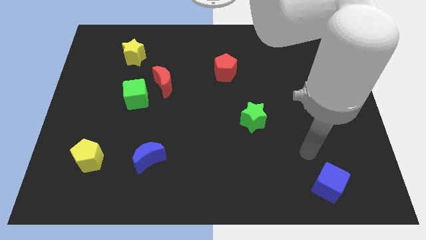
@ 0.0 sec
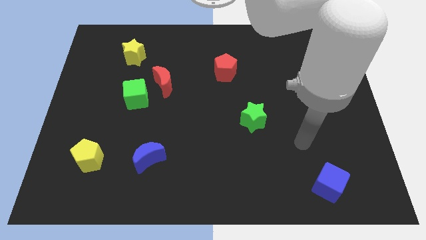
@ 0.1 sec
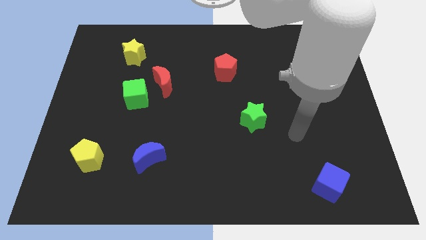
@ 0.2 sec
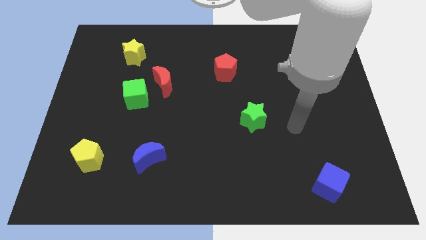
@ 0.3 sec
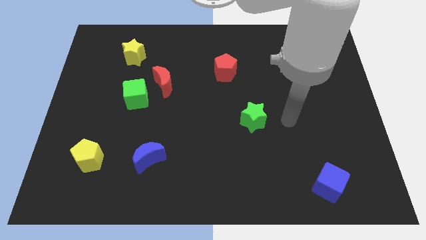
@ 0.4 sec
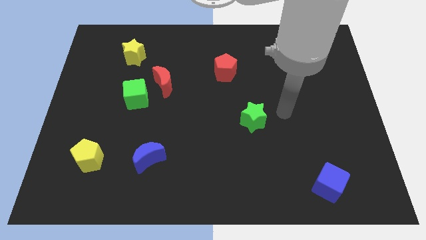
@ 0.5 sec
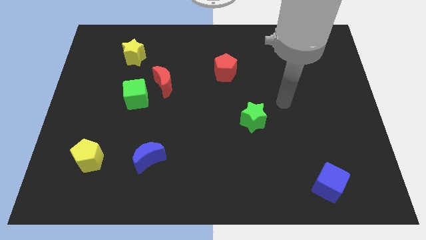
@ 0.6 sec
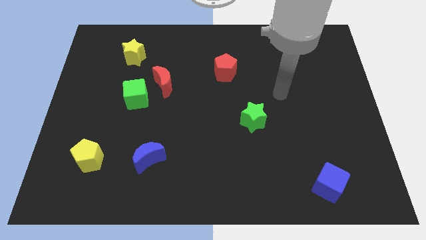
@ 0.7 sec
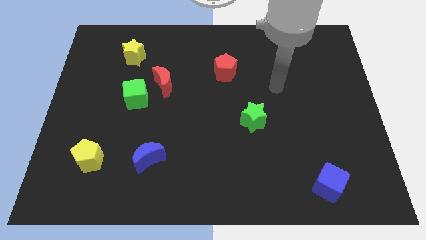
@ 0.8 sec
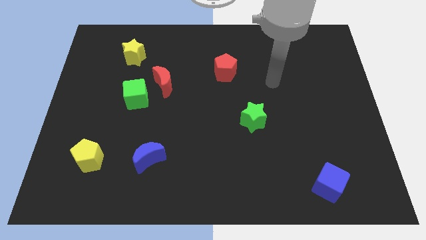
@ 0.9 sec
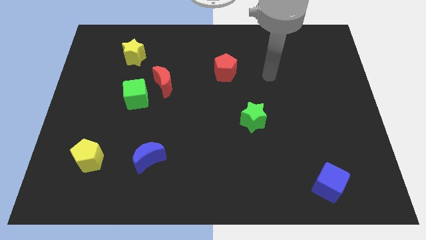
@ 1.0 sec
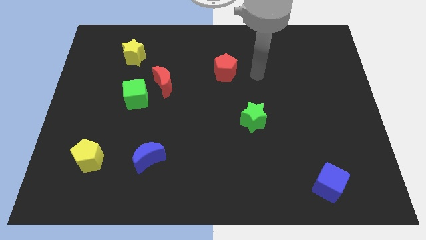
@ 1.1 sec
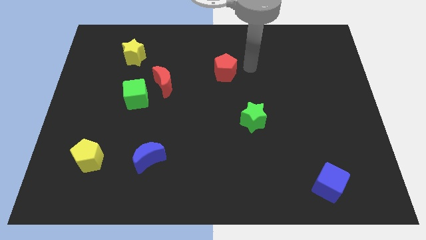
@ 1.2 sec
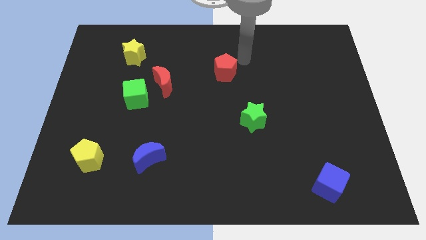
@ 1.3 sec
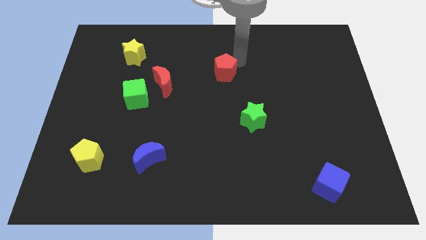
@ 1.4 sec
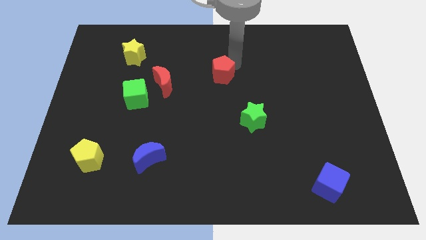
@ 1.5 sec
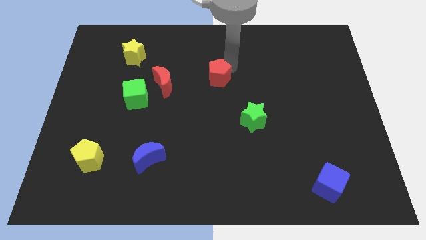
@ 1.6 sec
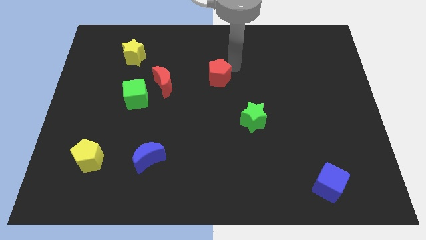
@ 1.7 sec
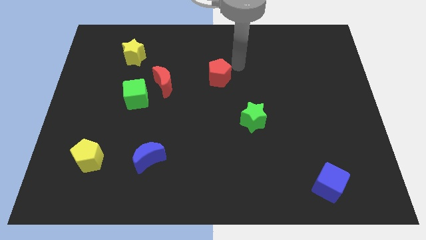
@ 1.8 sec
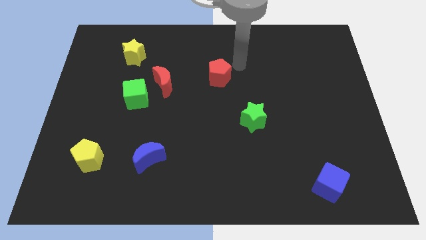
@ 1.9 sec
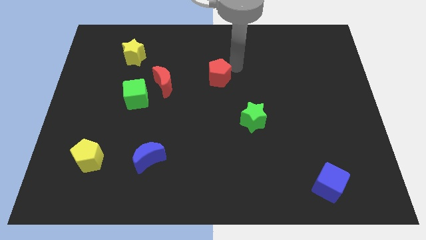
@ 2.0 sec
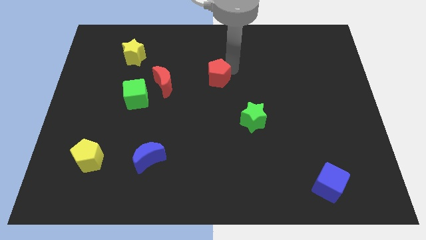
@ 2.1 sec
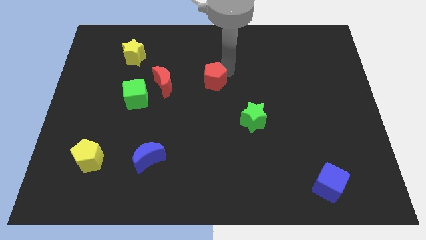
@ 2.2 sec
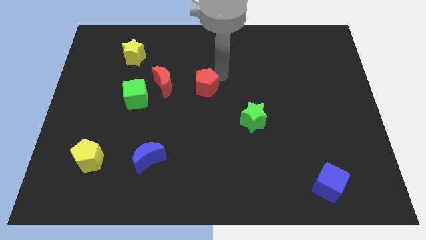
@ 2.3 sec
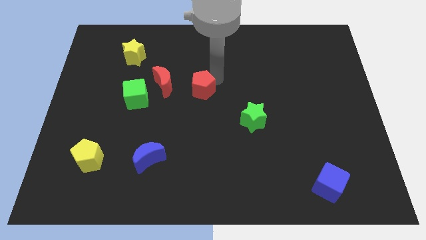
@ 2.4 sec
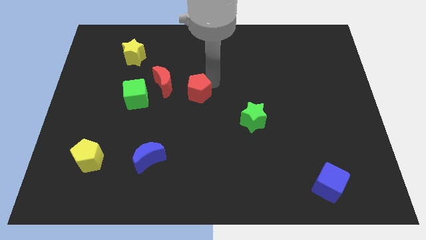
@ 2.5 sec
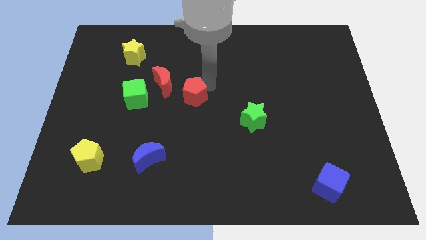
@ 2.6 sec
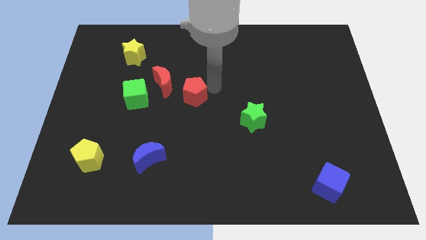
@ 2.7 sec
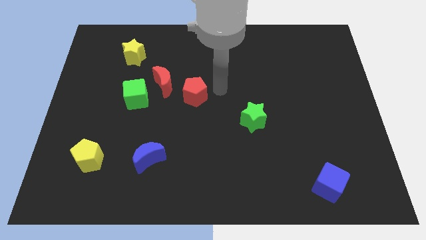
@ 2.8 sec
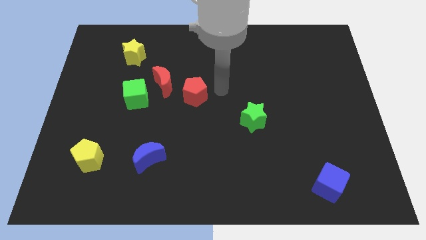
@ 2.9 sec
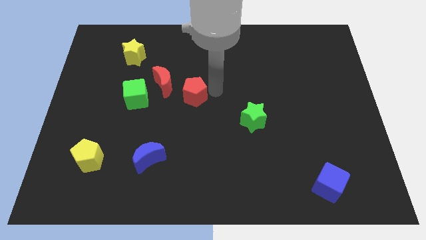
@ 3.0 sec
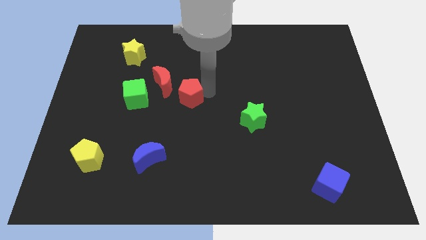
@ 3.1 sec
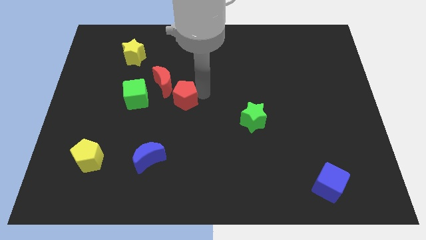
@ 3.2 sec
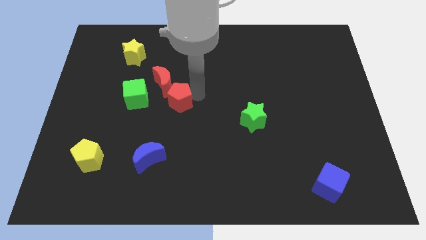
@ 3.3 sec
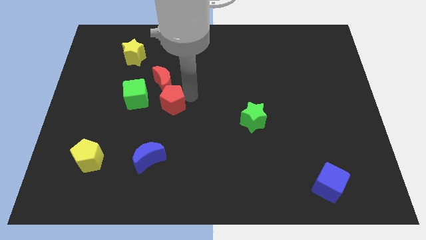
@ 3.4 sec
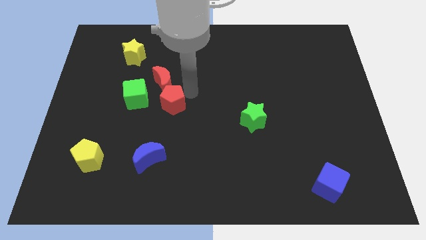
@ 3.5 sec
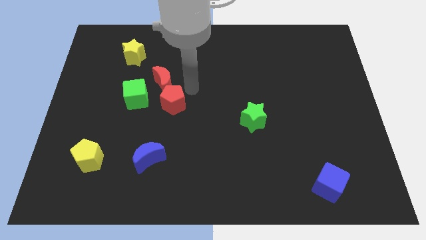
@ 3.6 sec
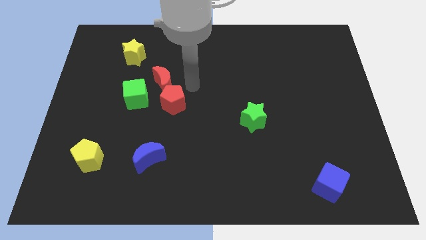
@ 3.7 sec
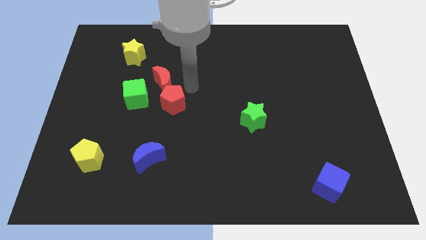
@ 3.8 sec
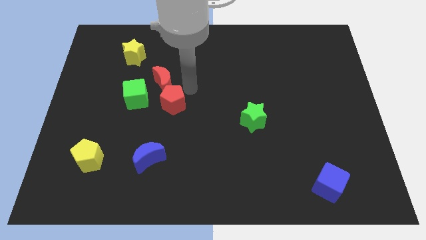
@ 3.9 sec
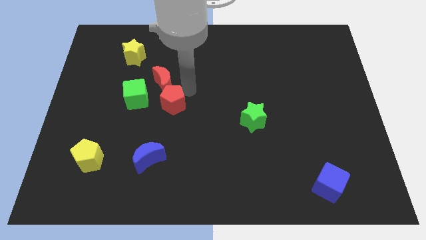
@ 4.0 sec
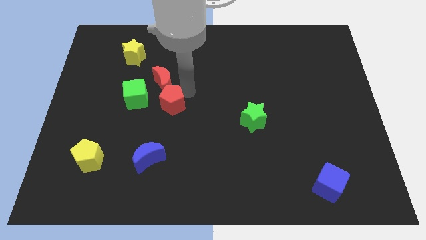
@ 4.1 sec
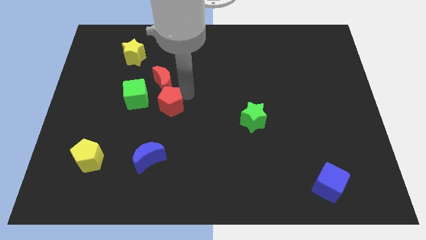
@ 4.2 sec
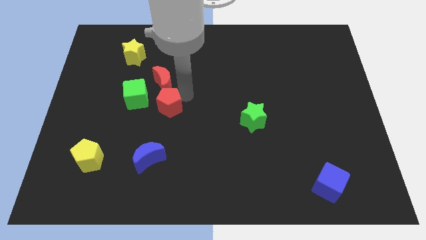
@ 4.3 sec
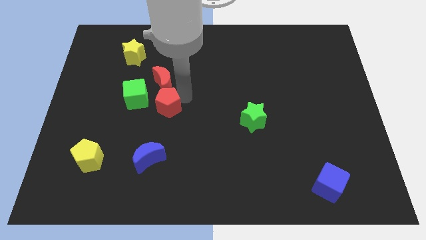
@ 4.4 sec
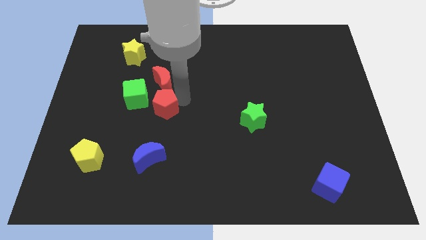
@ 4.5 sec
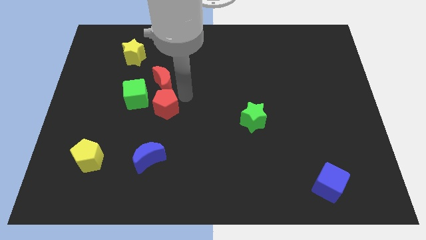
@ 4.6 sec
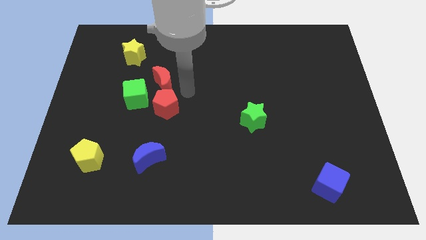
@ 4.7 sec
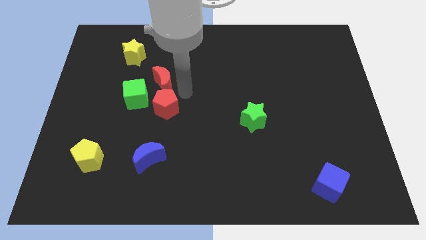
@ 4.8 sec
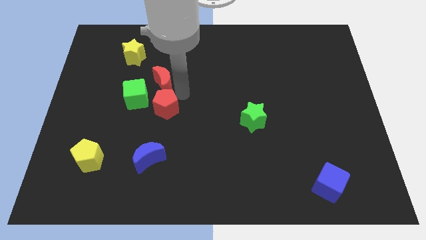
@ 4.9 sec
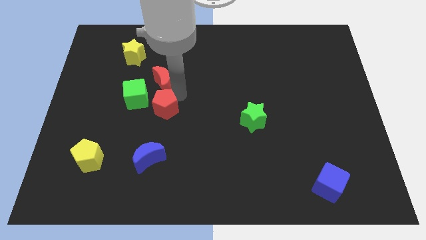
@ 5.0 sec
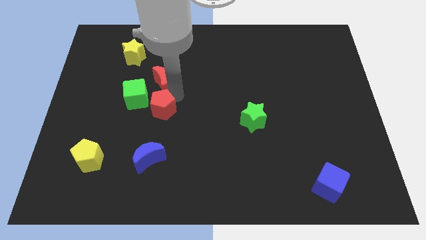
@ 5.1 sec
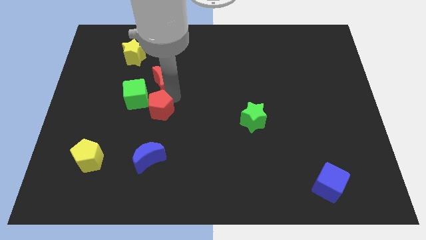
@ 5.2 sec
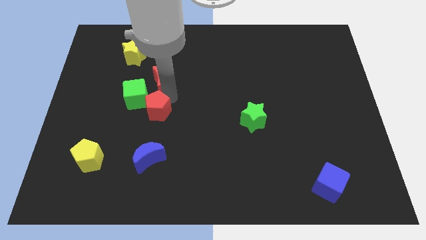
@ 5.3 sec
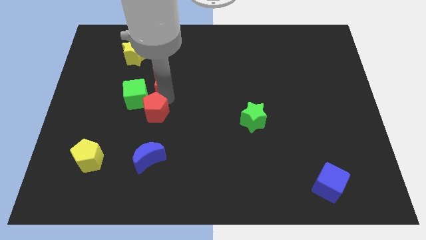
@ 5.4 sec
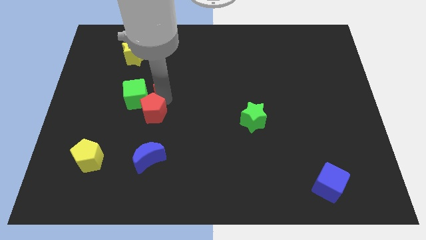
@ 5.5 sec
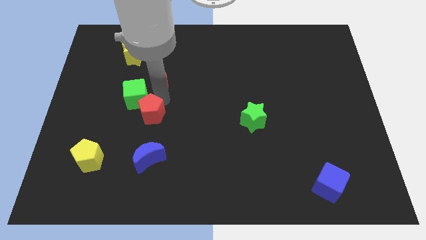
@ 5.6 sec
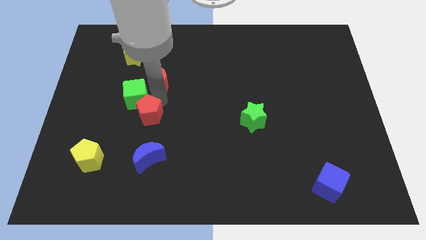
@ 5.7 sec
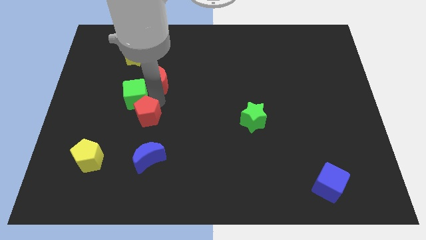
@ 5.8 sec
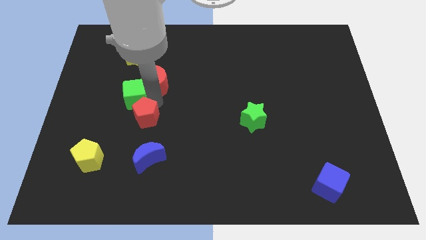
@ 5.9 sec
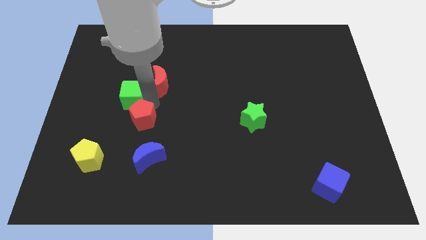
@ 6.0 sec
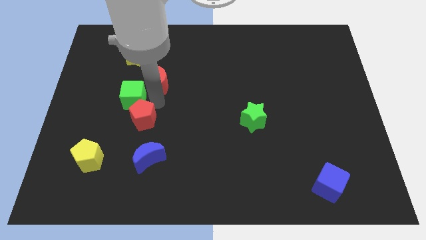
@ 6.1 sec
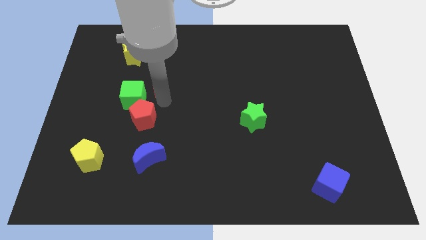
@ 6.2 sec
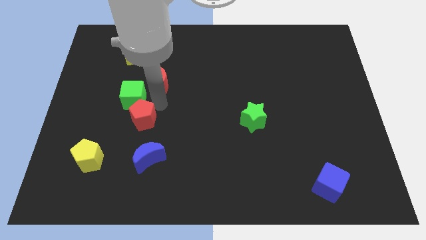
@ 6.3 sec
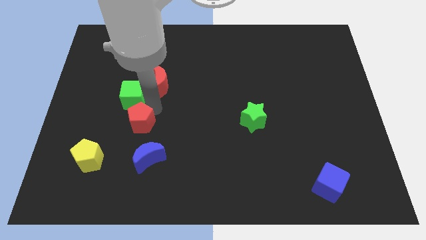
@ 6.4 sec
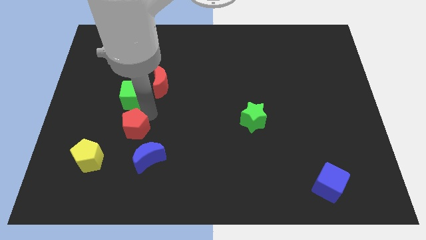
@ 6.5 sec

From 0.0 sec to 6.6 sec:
move the red pentagon diagonally up and to the right of the yellow pentagon

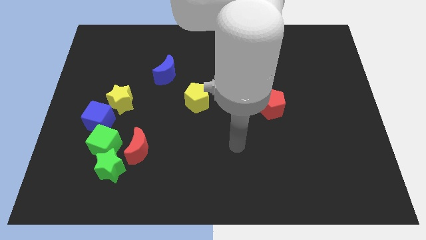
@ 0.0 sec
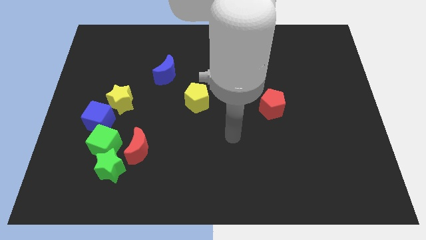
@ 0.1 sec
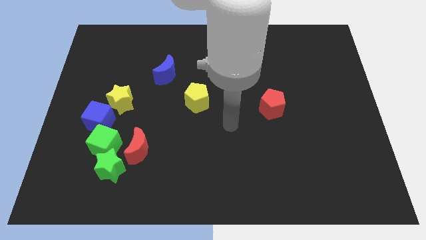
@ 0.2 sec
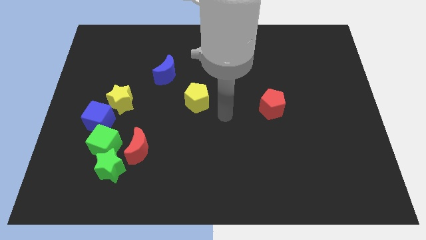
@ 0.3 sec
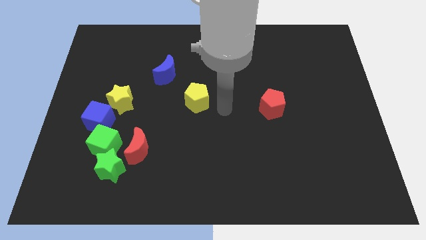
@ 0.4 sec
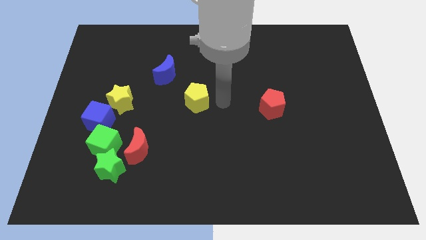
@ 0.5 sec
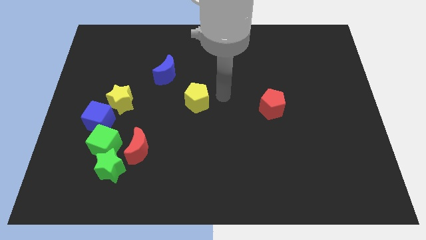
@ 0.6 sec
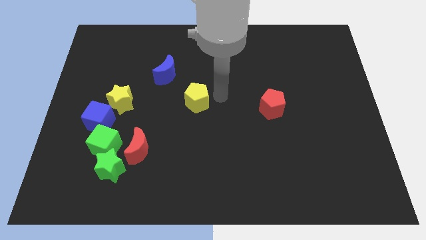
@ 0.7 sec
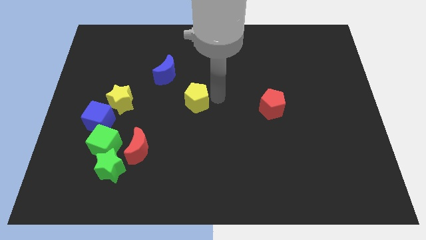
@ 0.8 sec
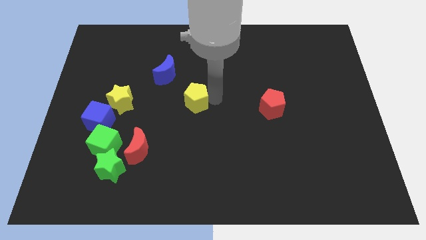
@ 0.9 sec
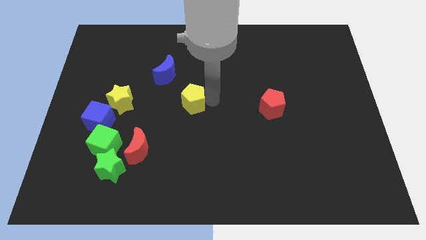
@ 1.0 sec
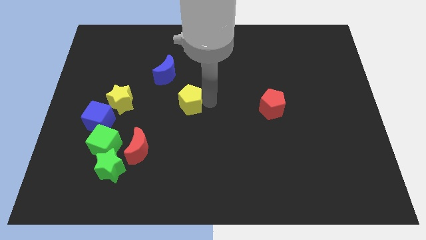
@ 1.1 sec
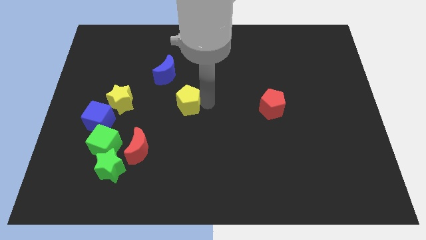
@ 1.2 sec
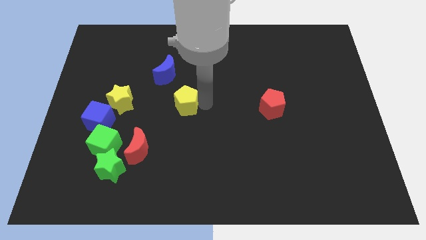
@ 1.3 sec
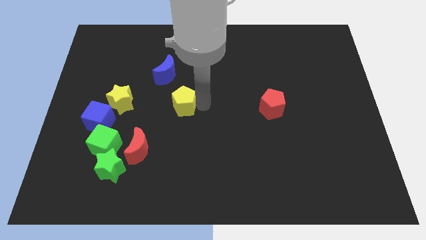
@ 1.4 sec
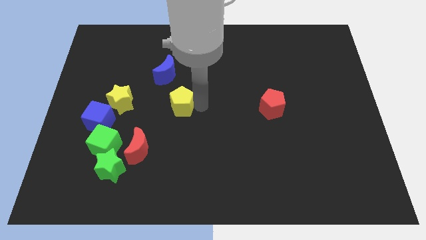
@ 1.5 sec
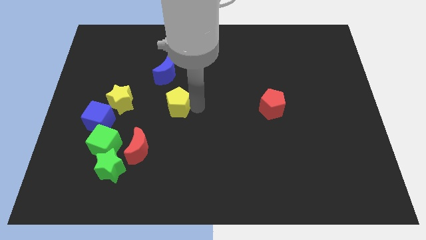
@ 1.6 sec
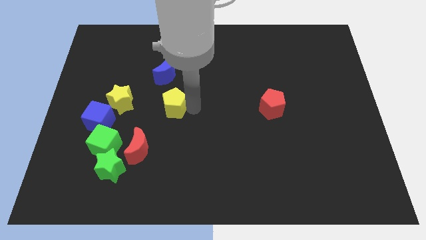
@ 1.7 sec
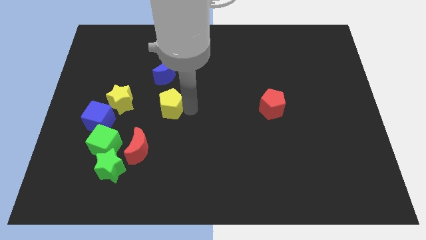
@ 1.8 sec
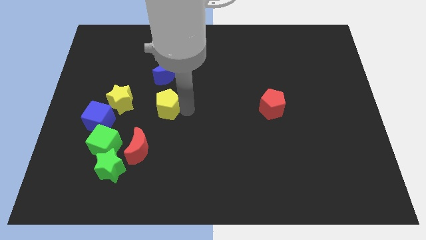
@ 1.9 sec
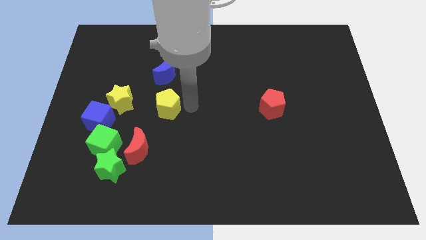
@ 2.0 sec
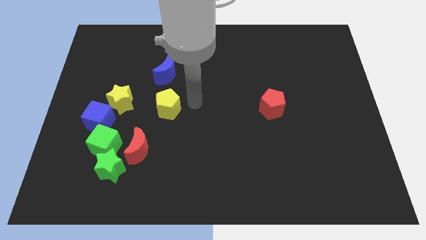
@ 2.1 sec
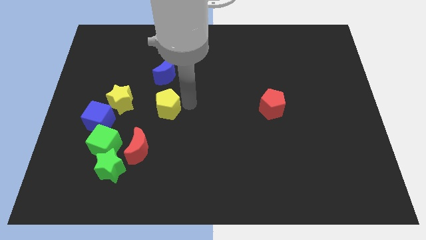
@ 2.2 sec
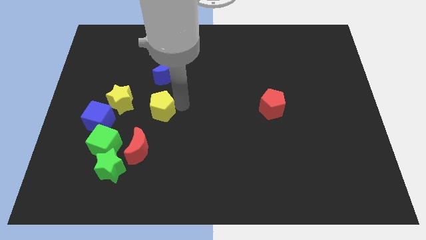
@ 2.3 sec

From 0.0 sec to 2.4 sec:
slide the yellow pentagon above the red moon
